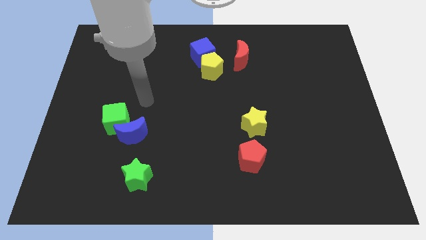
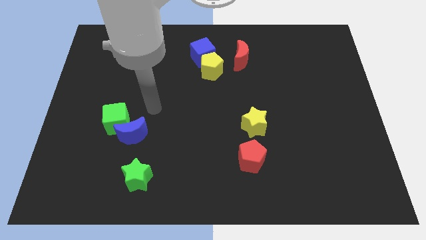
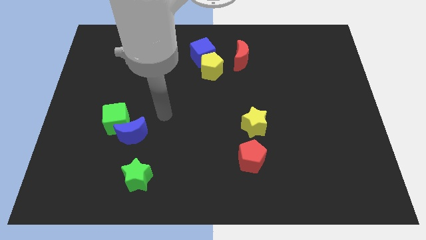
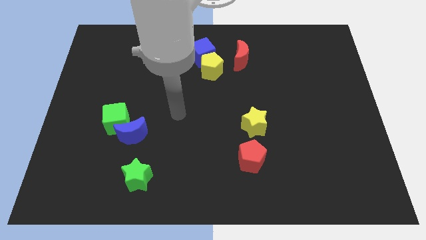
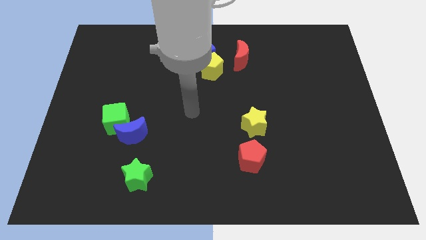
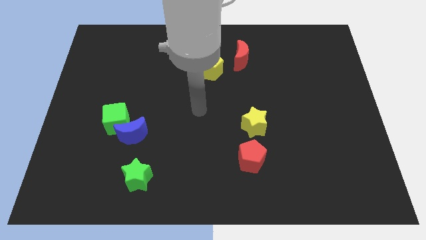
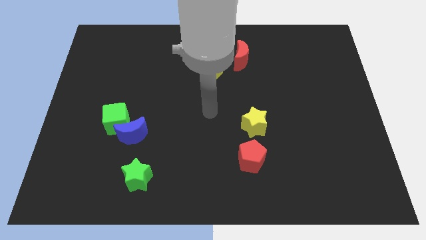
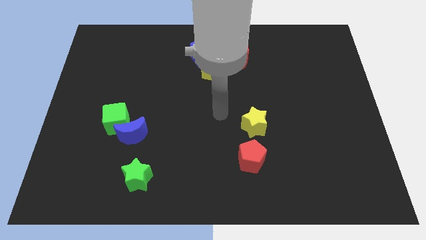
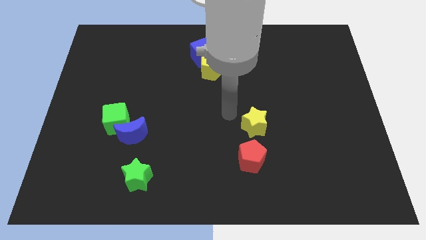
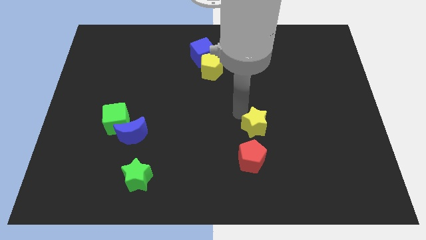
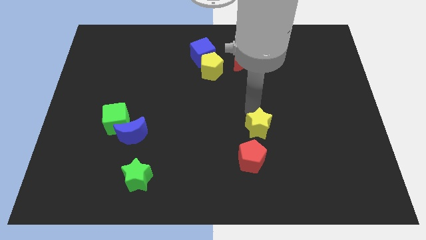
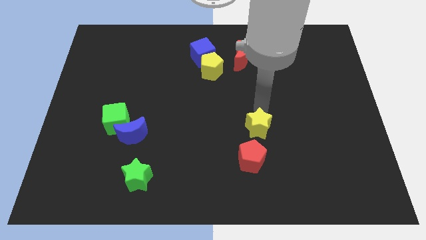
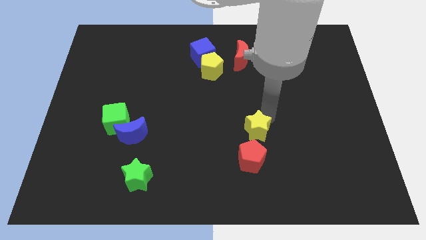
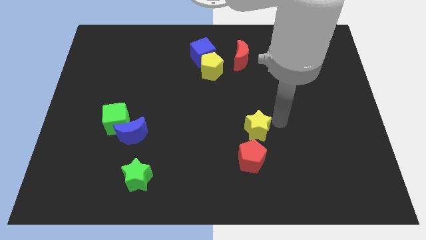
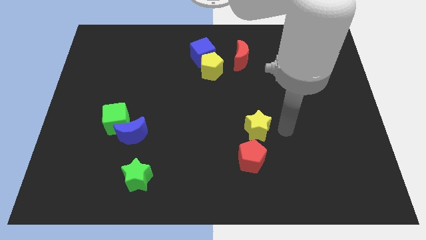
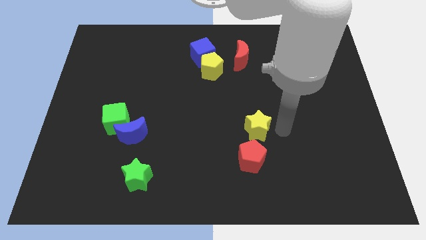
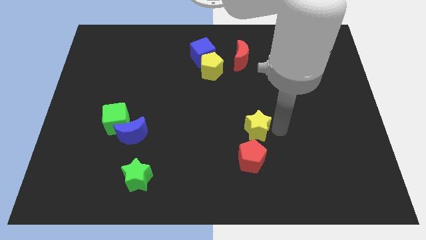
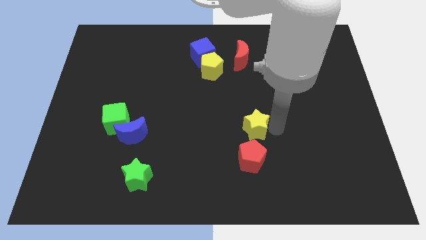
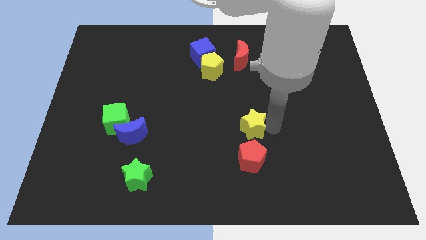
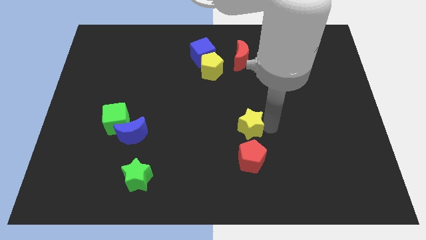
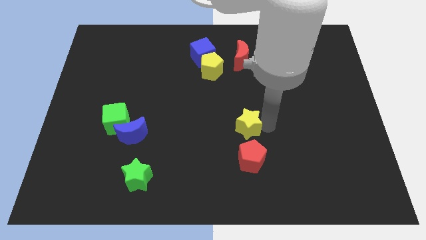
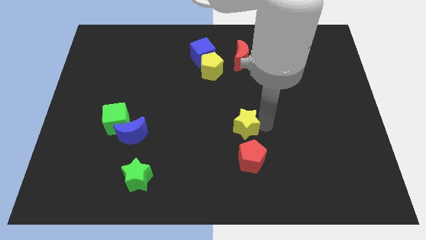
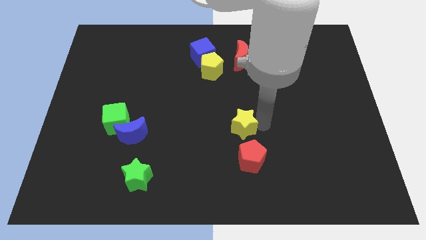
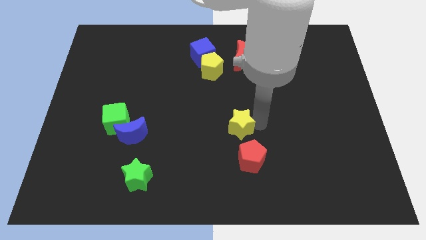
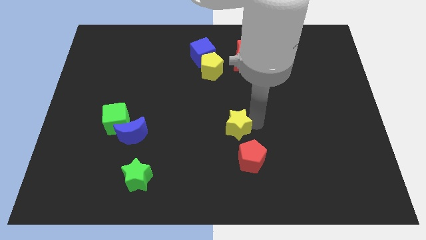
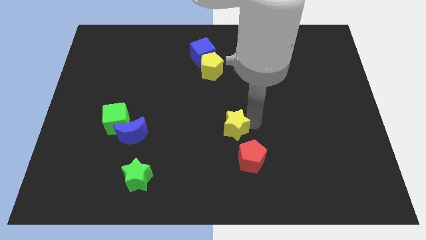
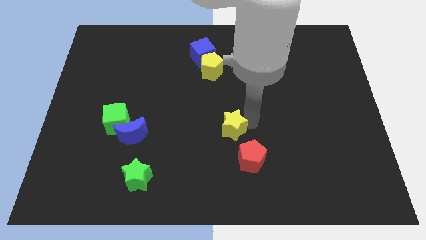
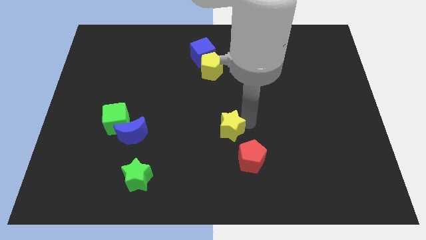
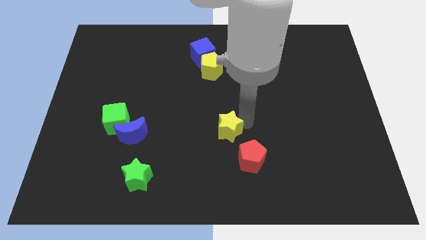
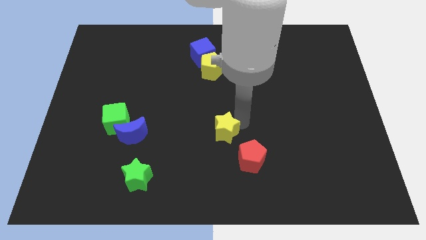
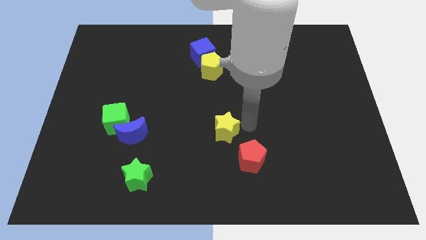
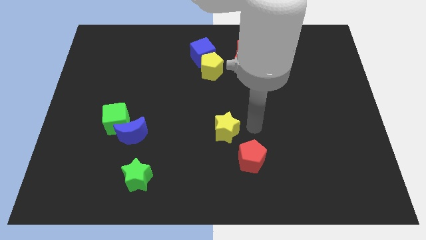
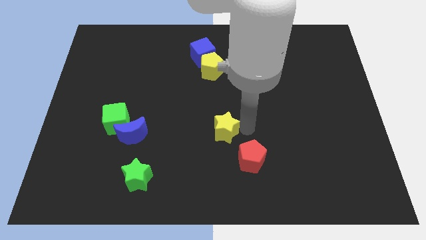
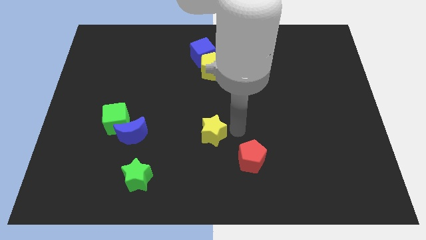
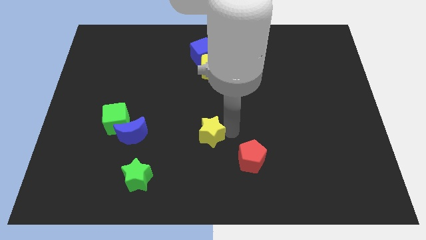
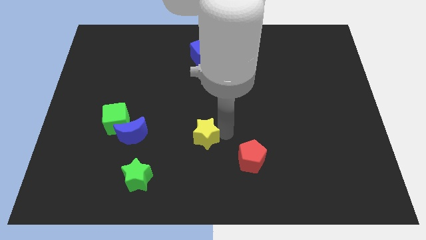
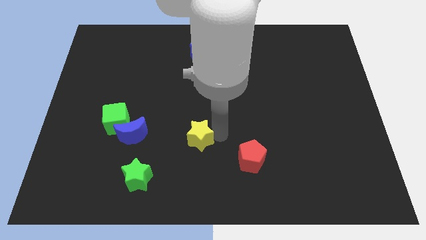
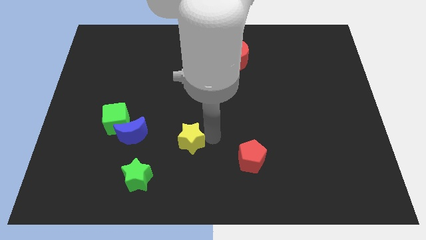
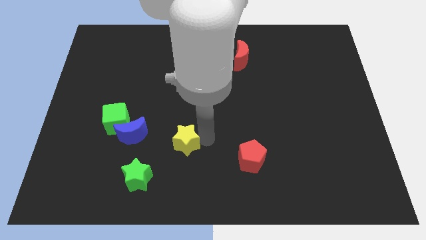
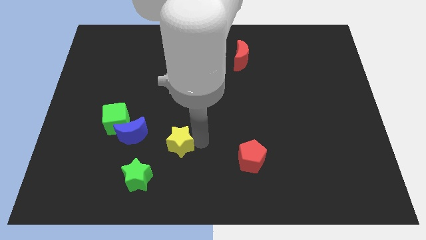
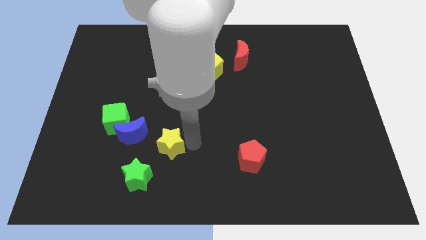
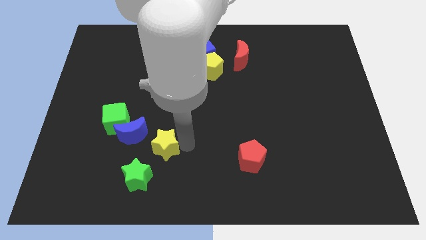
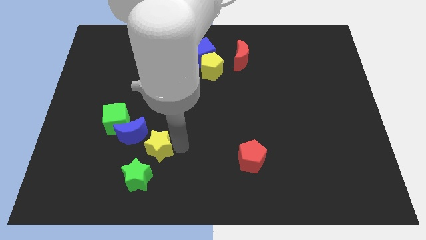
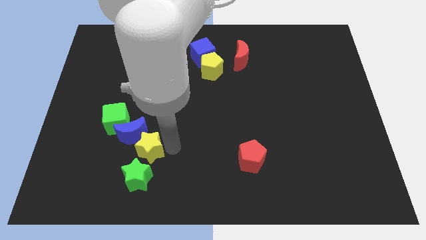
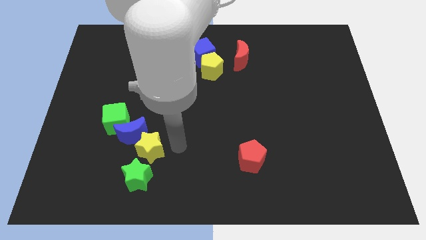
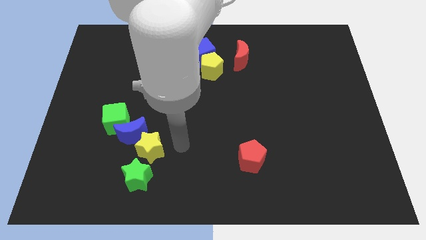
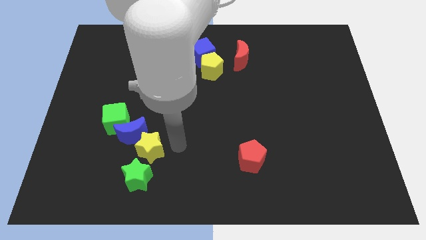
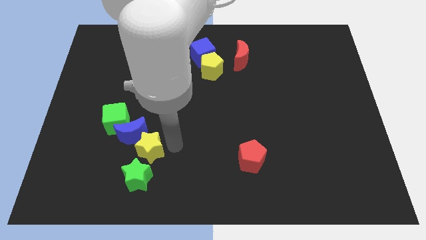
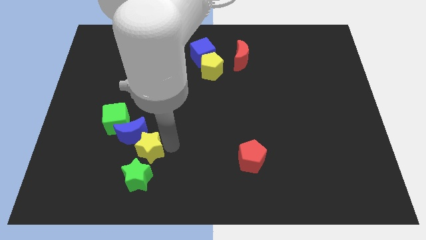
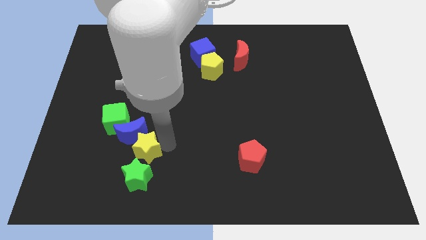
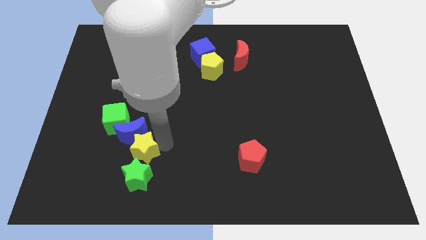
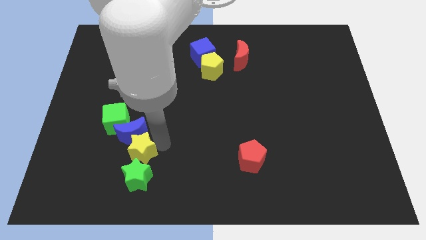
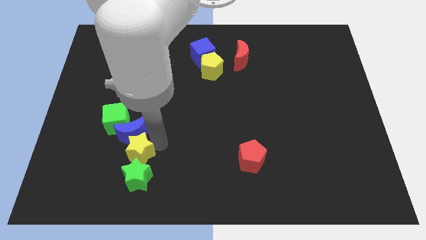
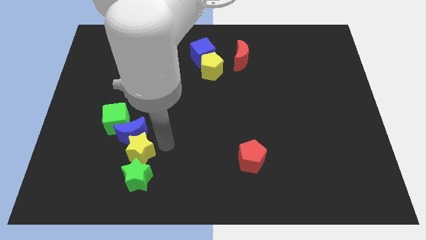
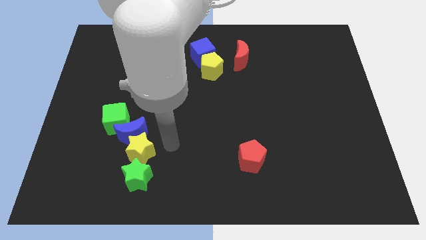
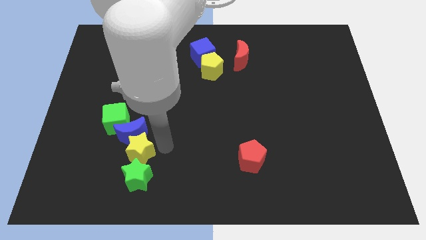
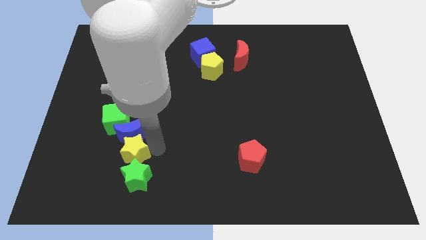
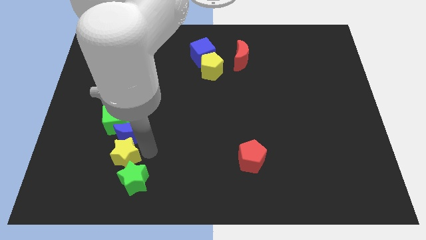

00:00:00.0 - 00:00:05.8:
put the yellow star to the bottom of the green cube

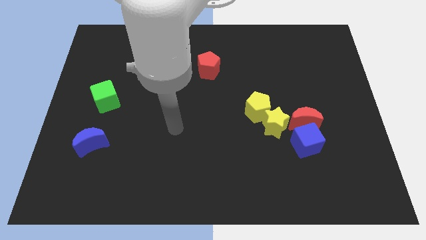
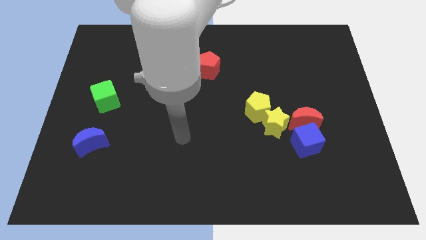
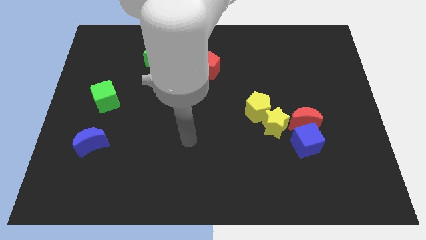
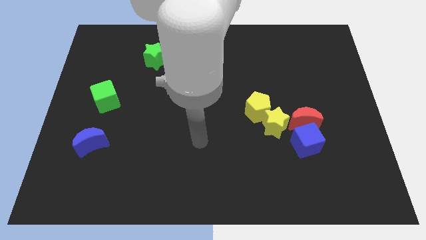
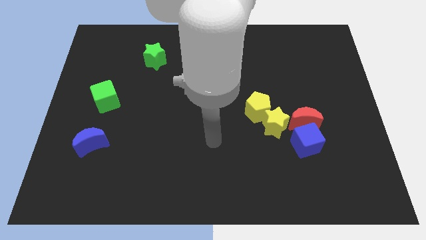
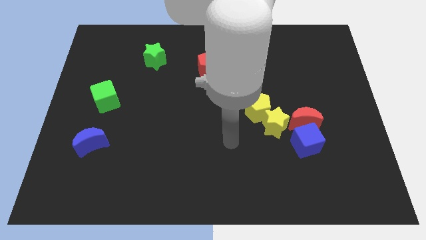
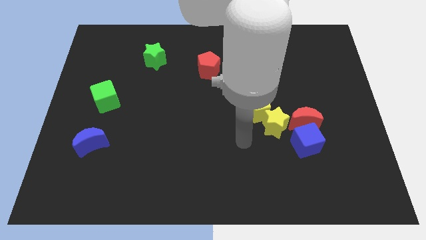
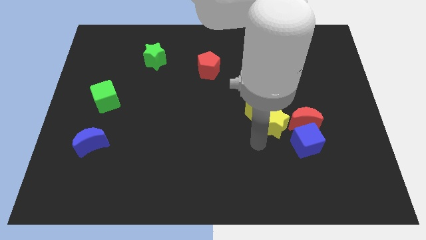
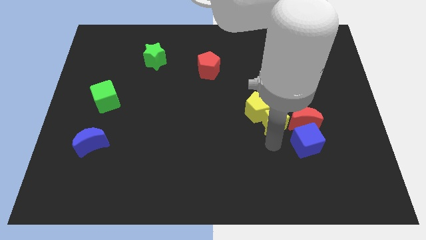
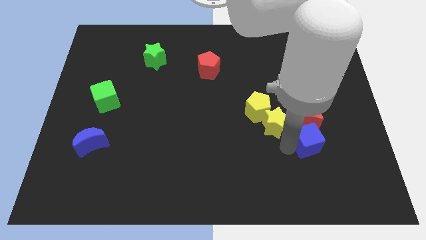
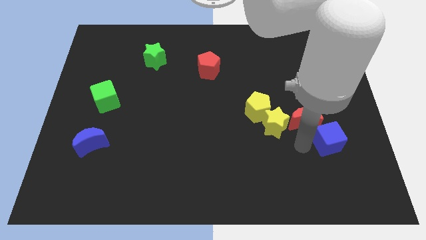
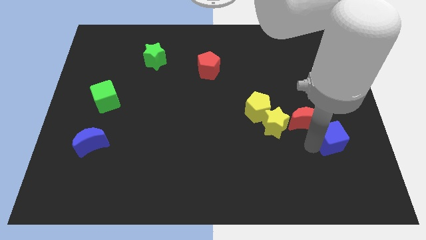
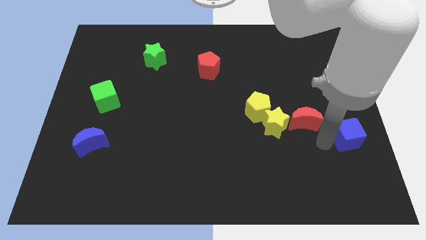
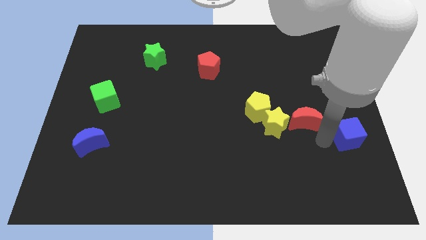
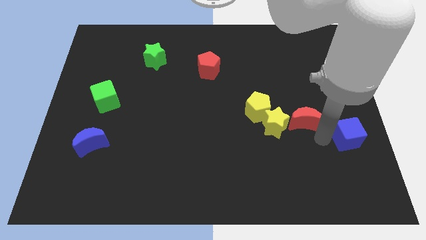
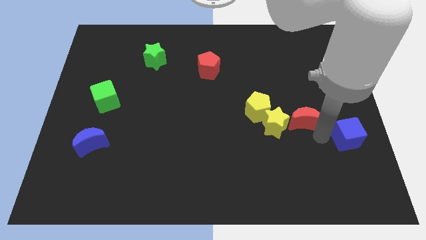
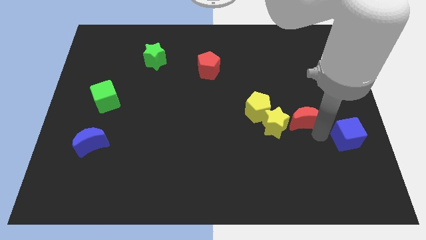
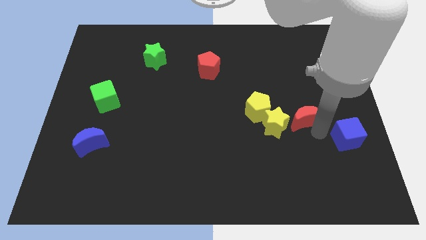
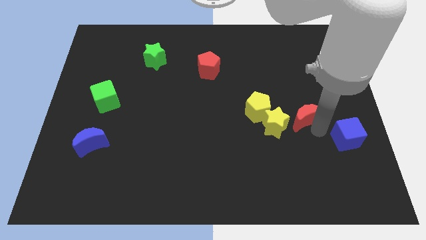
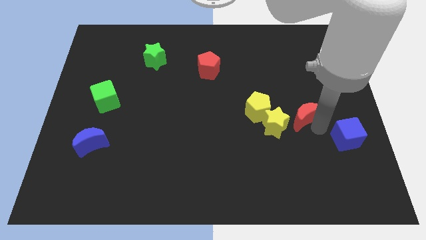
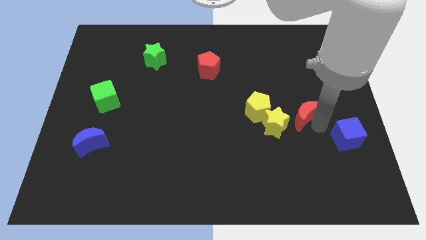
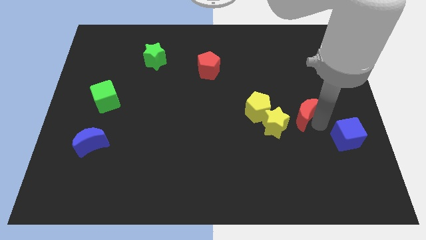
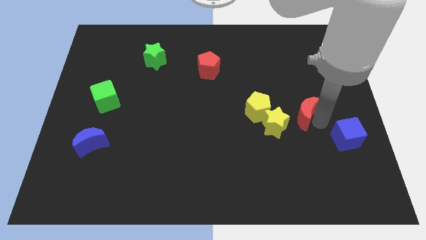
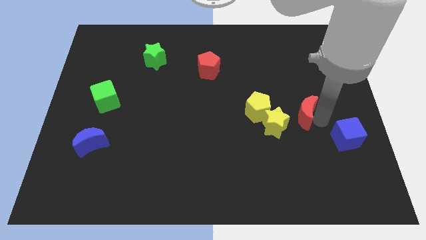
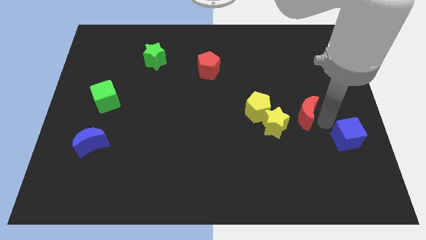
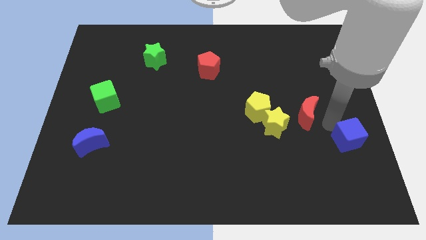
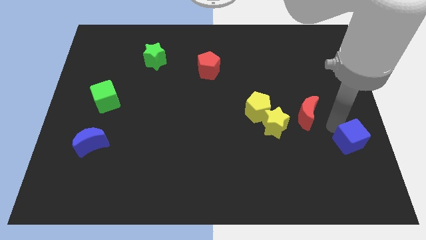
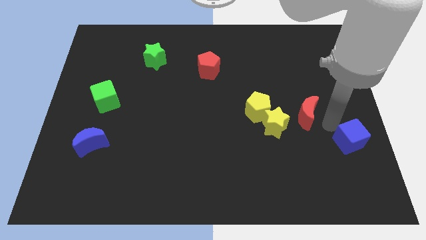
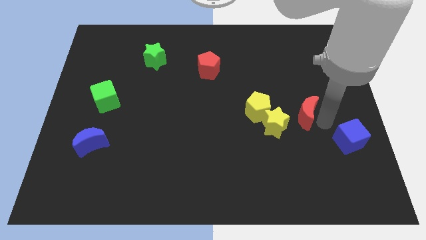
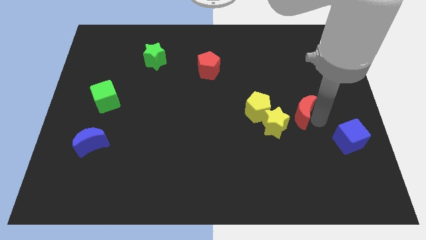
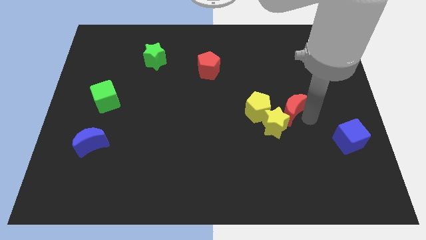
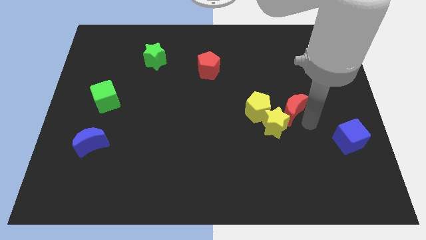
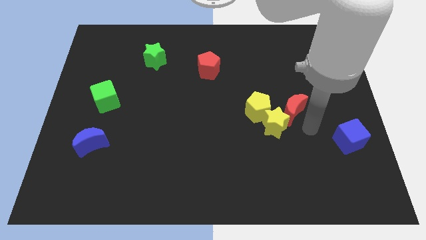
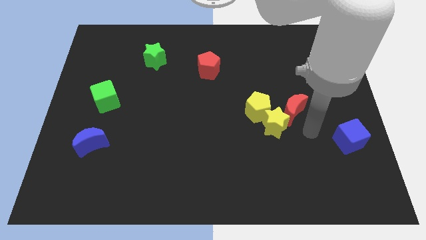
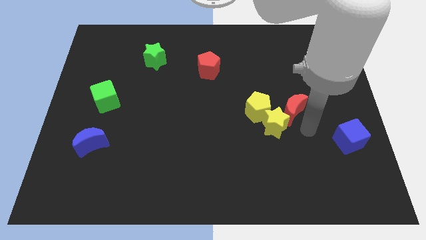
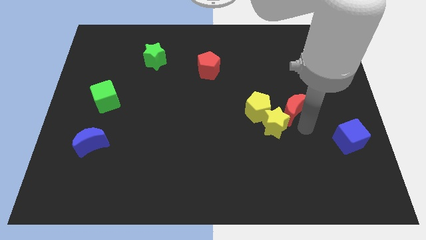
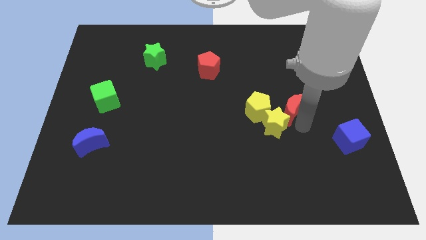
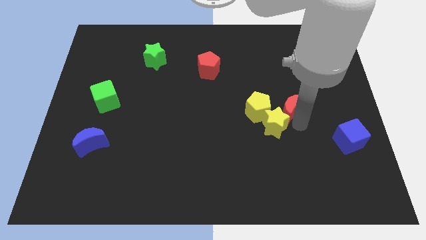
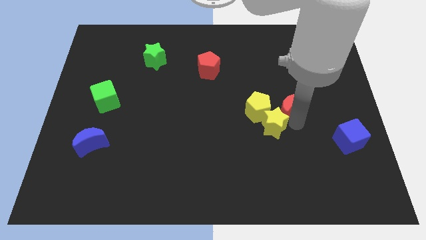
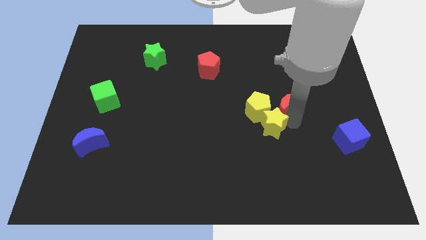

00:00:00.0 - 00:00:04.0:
move the red moon to the top right side of the yellow pentagon
